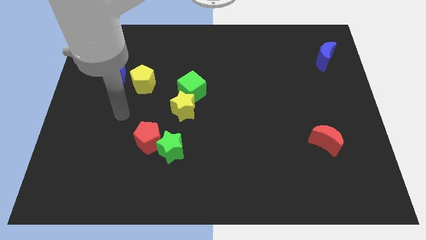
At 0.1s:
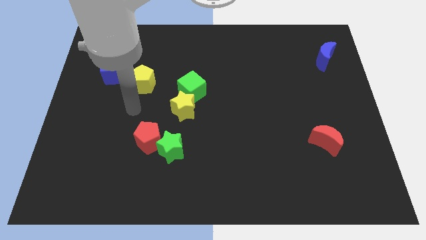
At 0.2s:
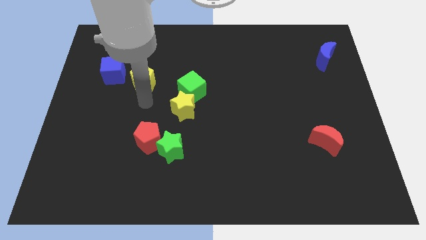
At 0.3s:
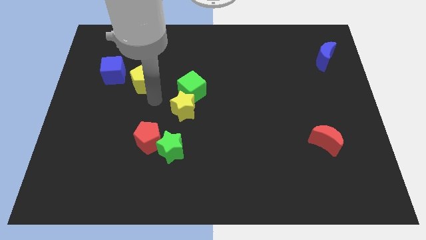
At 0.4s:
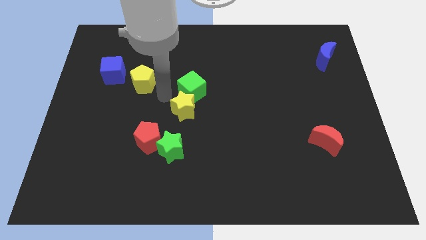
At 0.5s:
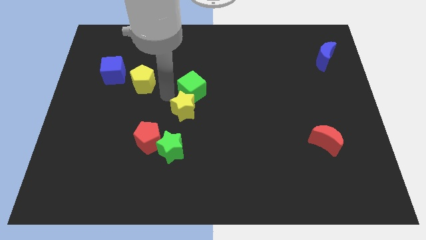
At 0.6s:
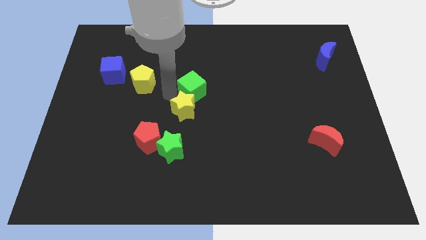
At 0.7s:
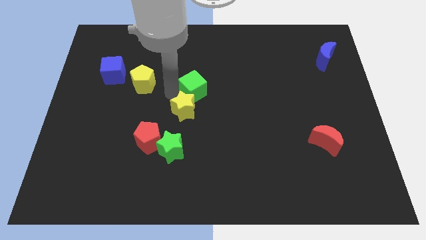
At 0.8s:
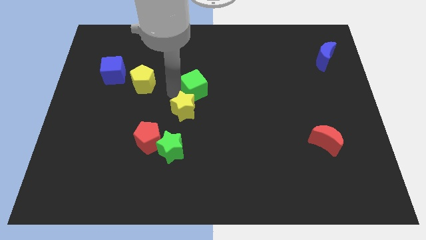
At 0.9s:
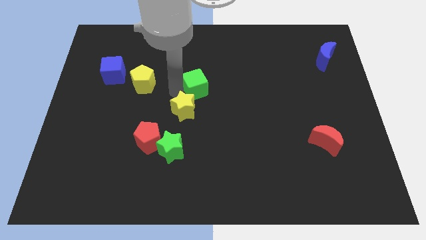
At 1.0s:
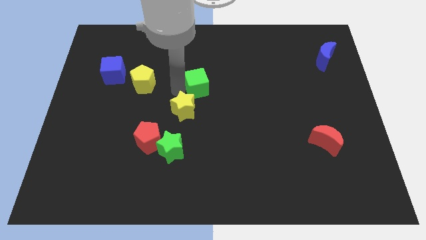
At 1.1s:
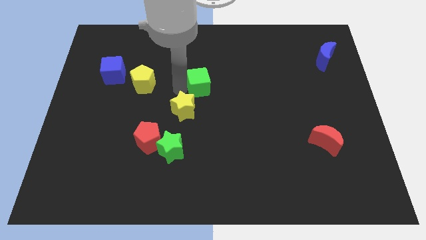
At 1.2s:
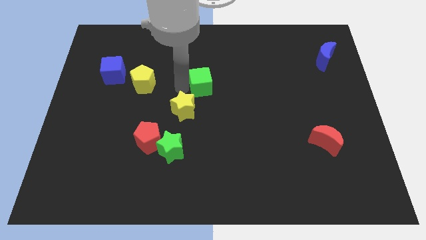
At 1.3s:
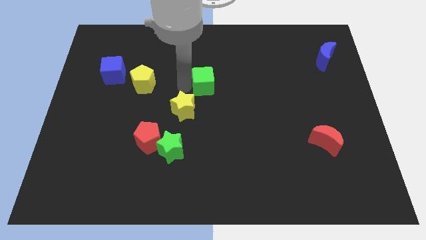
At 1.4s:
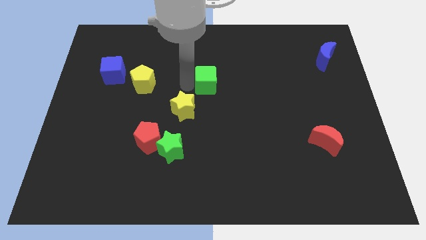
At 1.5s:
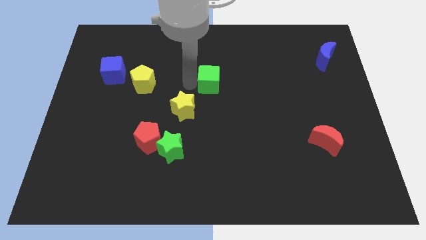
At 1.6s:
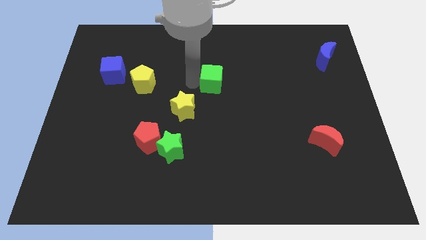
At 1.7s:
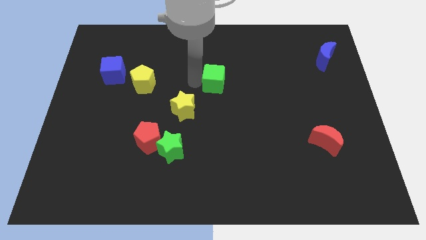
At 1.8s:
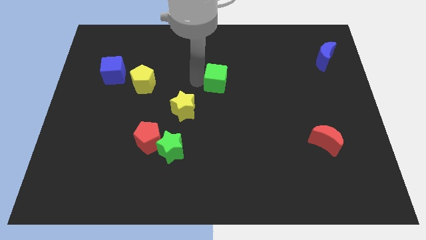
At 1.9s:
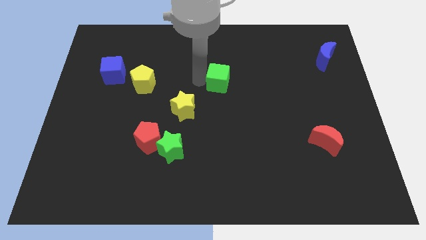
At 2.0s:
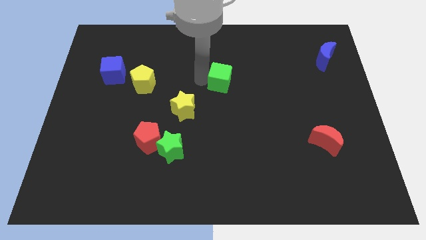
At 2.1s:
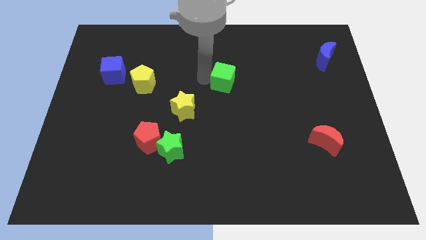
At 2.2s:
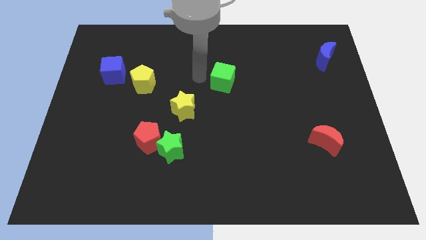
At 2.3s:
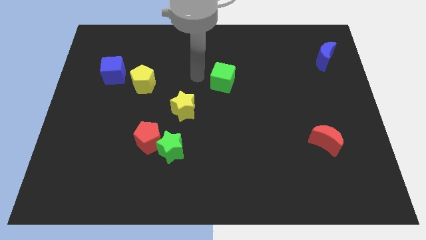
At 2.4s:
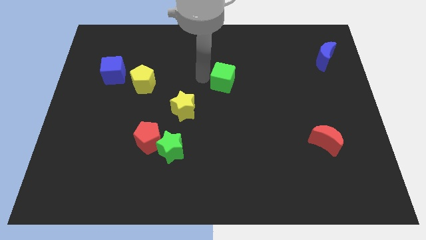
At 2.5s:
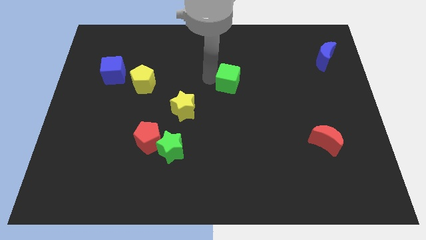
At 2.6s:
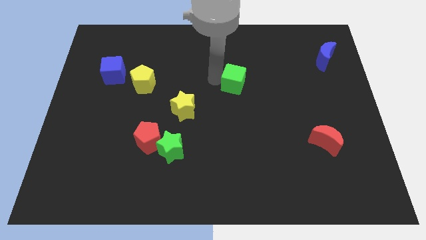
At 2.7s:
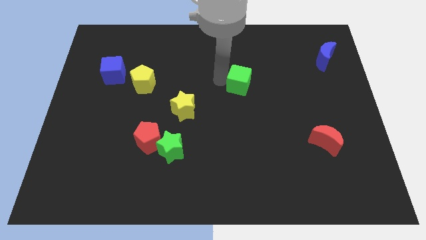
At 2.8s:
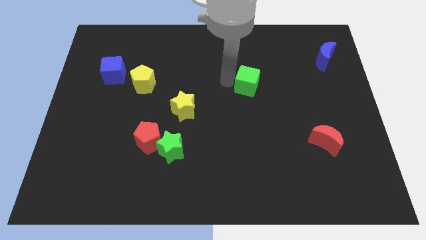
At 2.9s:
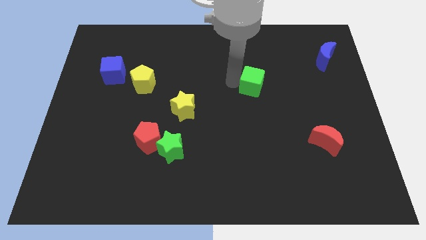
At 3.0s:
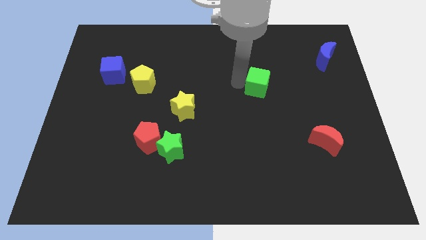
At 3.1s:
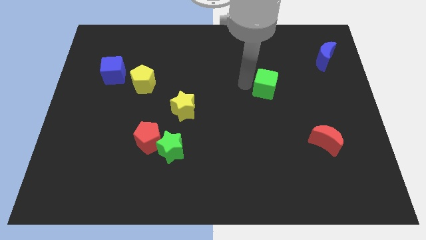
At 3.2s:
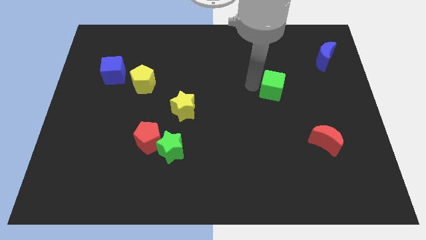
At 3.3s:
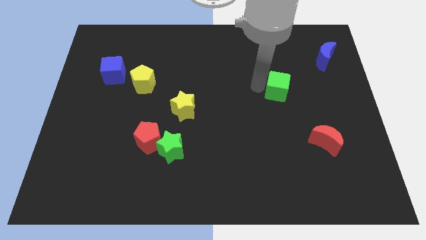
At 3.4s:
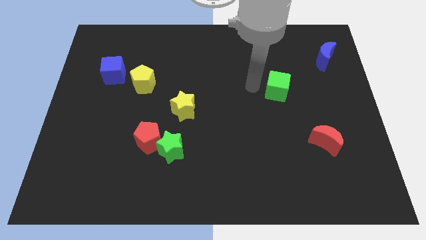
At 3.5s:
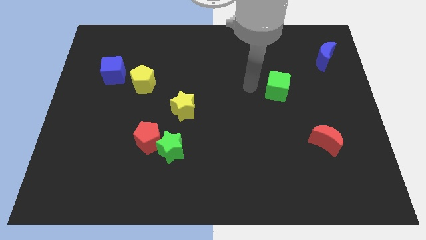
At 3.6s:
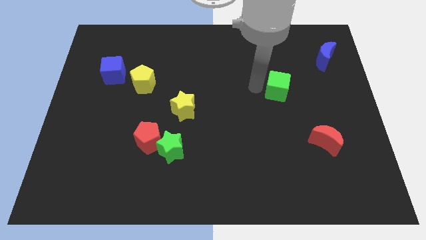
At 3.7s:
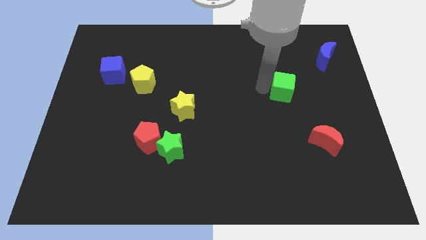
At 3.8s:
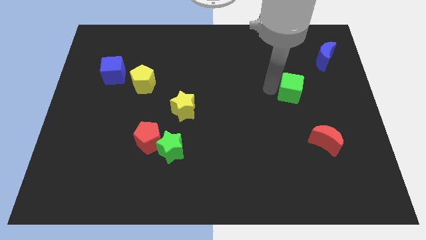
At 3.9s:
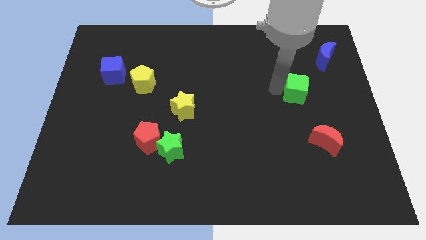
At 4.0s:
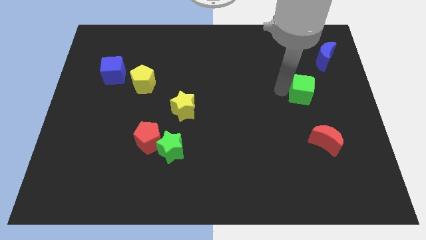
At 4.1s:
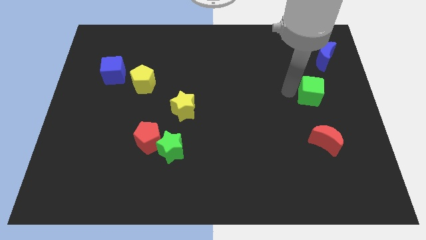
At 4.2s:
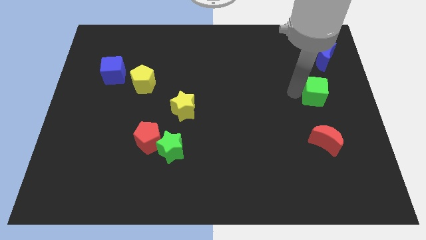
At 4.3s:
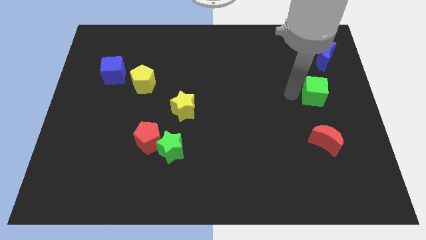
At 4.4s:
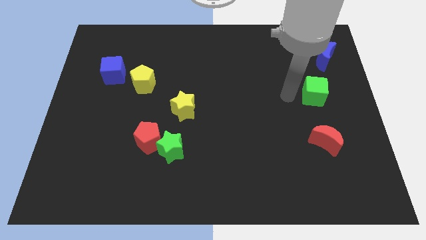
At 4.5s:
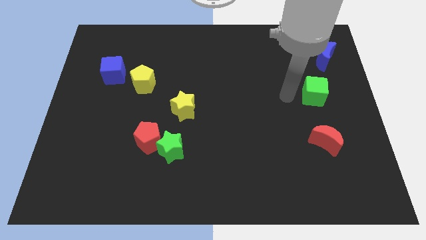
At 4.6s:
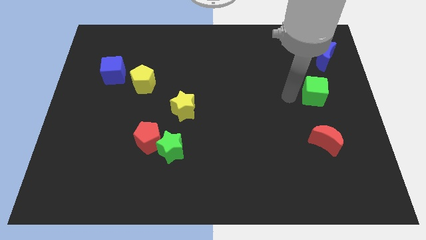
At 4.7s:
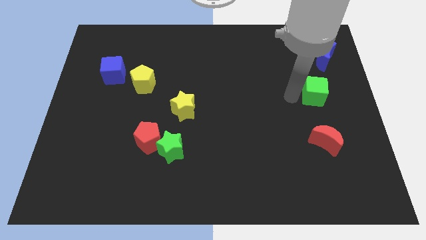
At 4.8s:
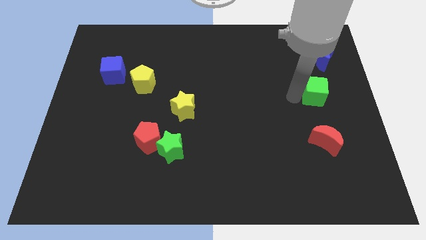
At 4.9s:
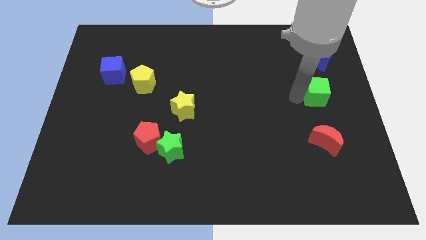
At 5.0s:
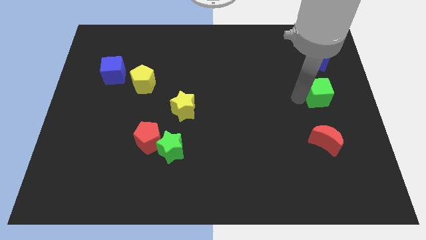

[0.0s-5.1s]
push the green cube to the center right

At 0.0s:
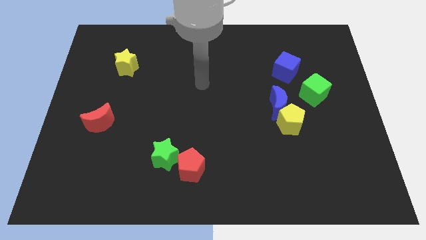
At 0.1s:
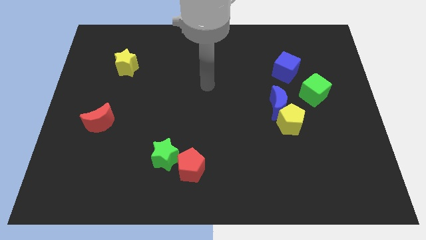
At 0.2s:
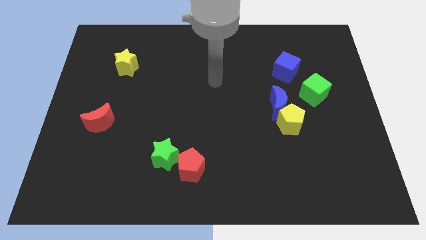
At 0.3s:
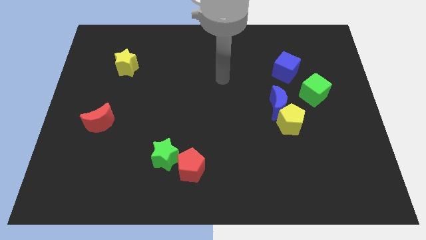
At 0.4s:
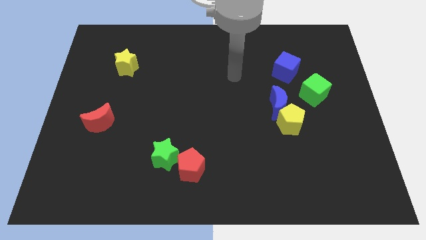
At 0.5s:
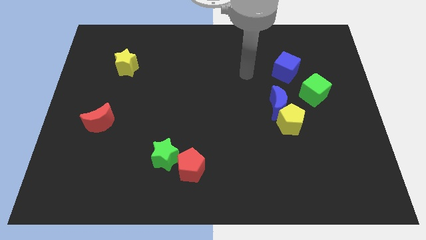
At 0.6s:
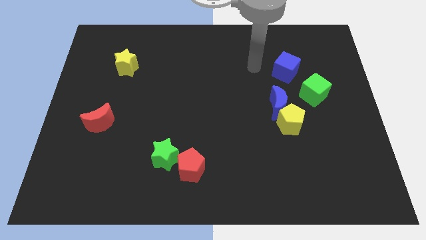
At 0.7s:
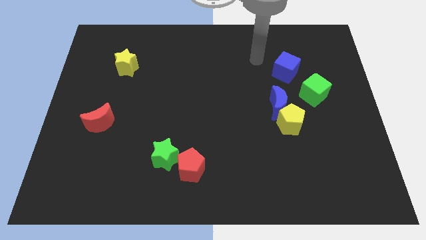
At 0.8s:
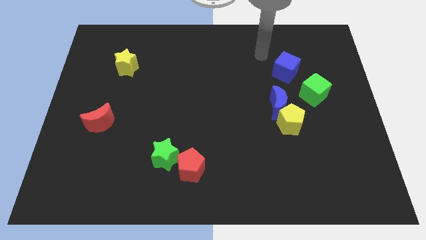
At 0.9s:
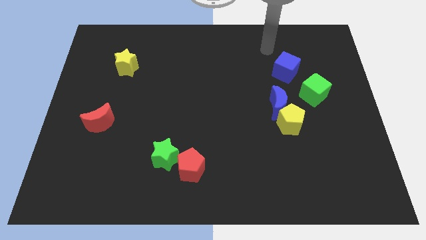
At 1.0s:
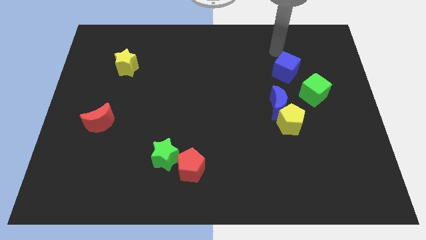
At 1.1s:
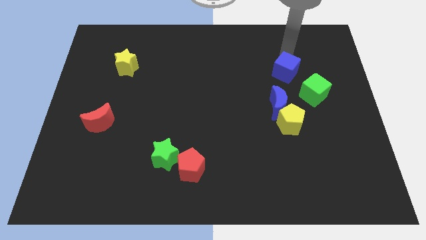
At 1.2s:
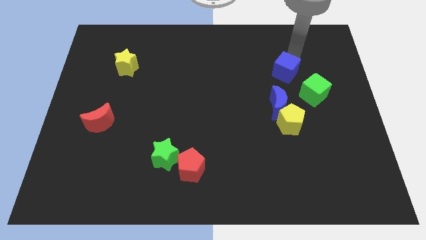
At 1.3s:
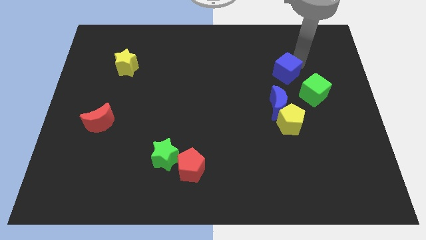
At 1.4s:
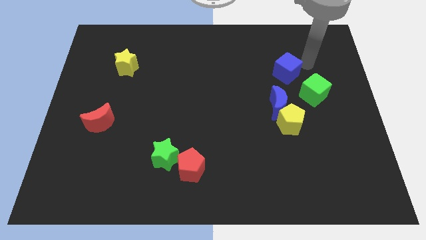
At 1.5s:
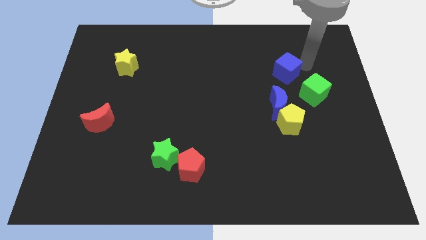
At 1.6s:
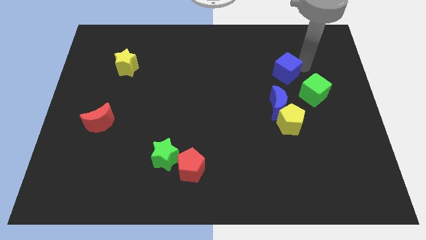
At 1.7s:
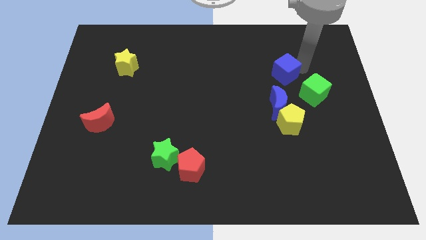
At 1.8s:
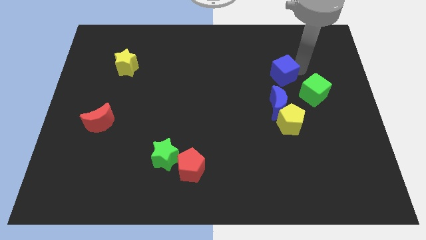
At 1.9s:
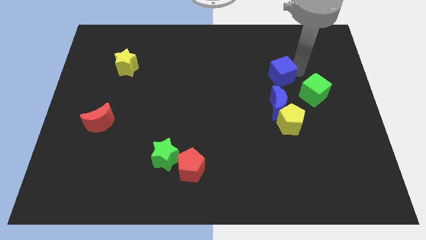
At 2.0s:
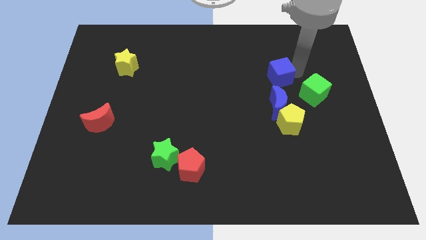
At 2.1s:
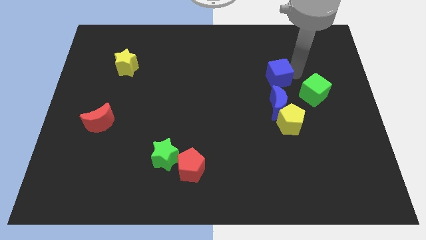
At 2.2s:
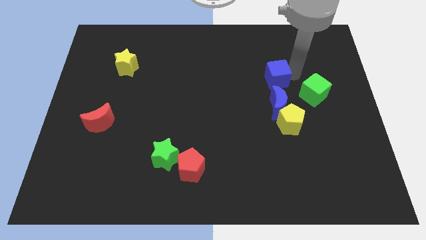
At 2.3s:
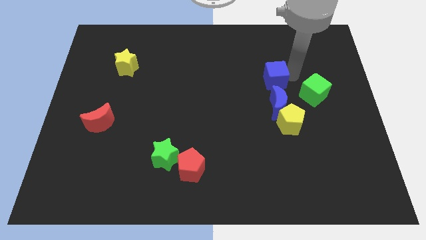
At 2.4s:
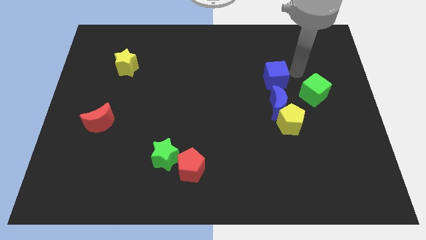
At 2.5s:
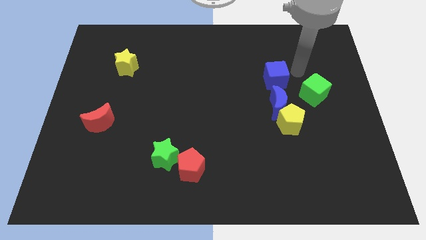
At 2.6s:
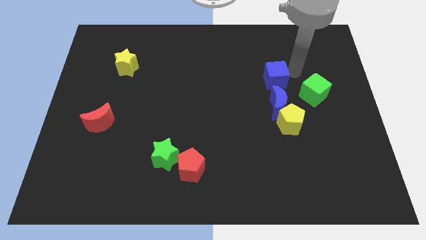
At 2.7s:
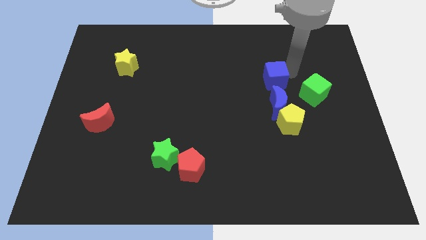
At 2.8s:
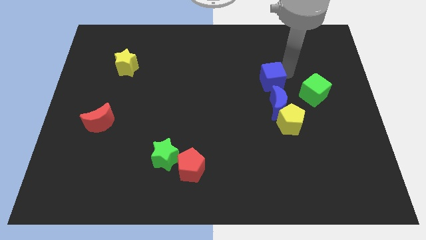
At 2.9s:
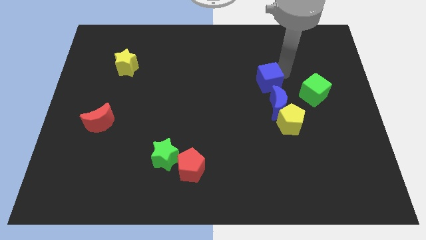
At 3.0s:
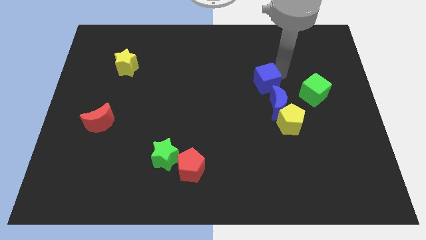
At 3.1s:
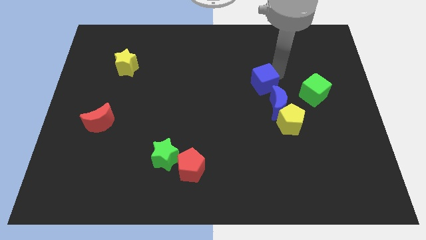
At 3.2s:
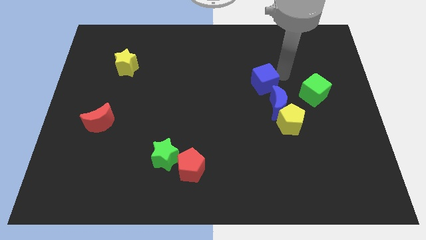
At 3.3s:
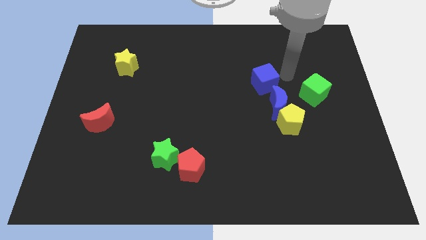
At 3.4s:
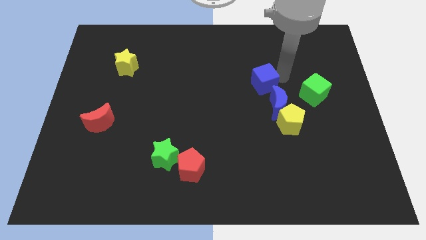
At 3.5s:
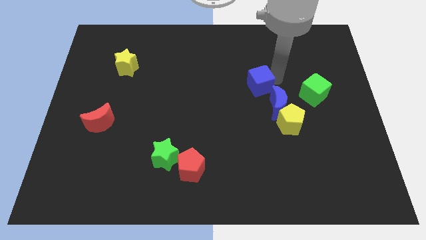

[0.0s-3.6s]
push the blue cube to the middle of the board
